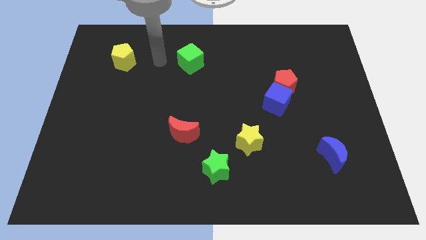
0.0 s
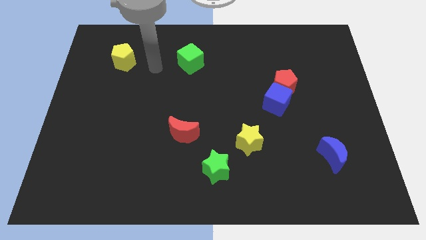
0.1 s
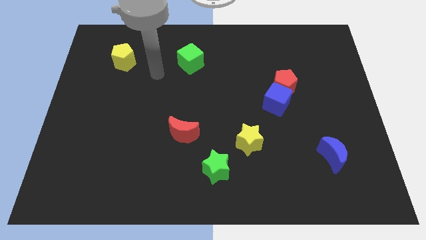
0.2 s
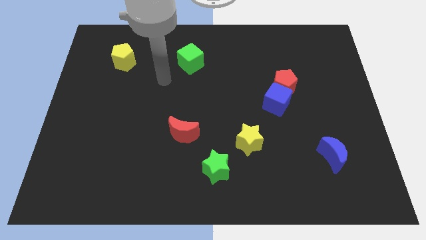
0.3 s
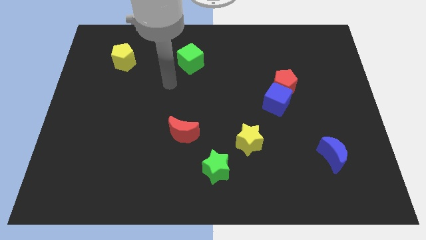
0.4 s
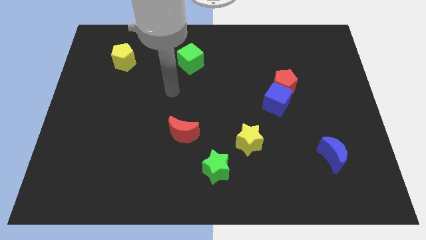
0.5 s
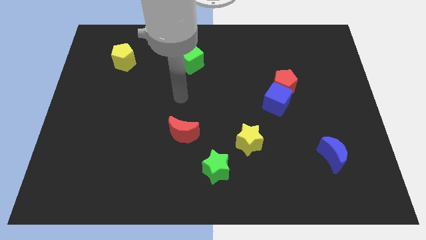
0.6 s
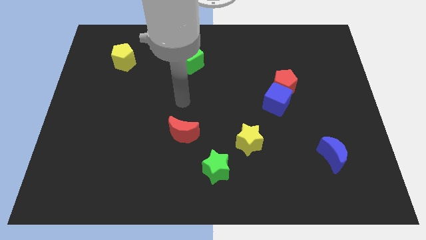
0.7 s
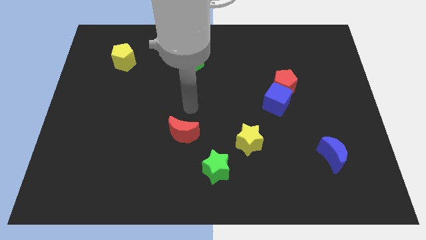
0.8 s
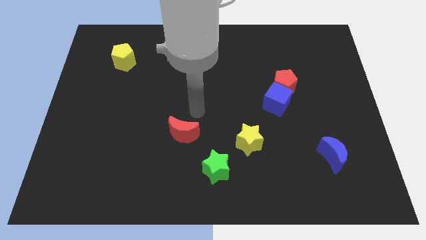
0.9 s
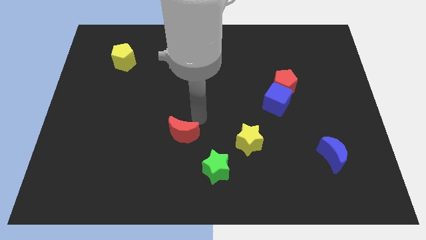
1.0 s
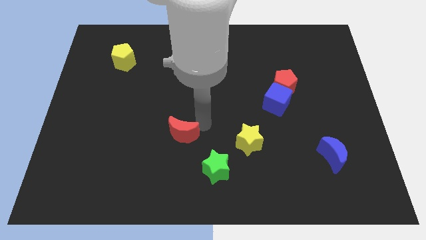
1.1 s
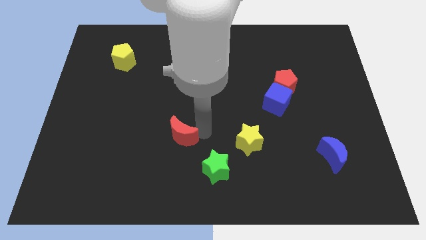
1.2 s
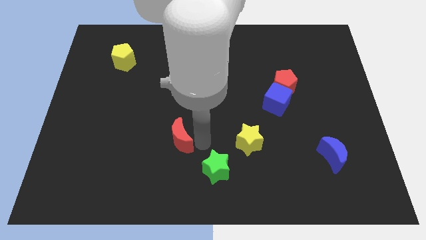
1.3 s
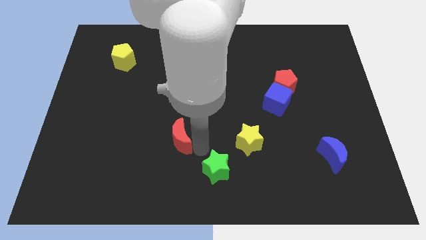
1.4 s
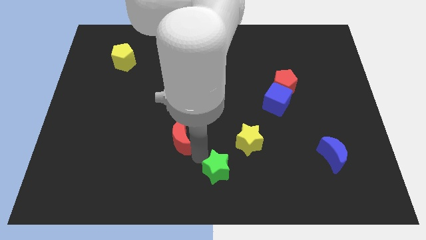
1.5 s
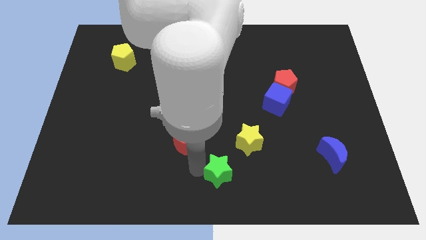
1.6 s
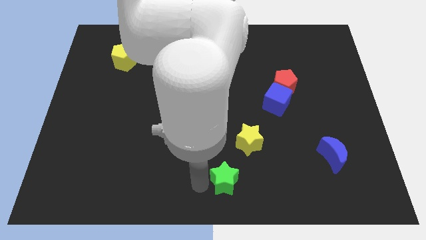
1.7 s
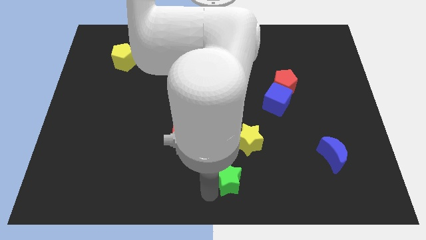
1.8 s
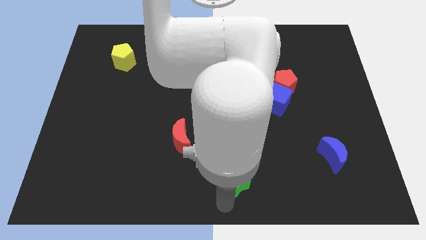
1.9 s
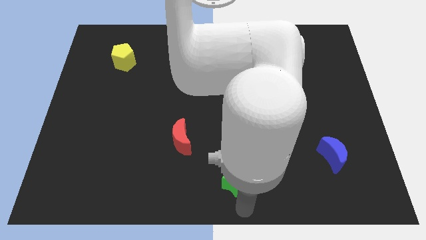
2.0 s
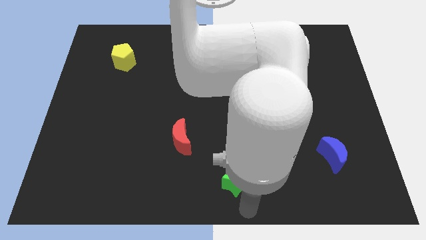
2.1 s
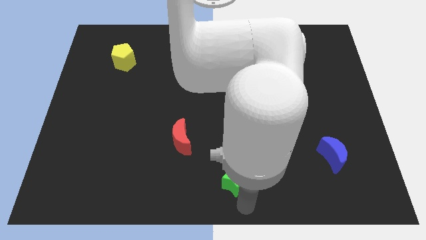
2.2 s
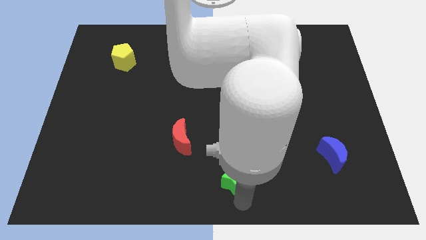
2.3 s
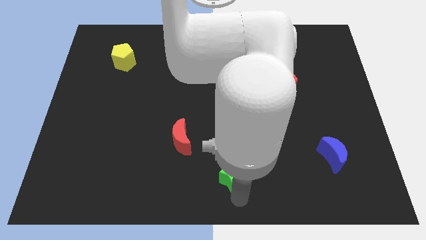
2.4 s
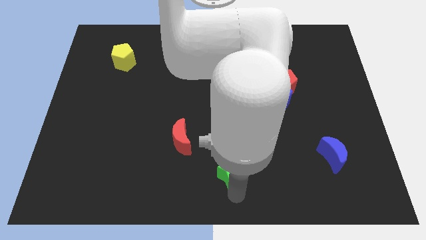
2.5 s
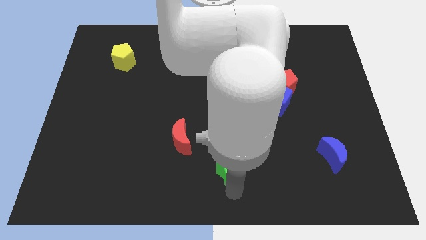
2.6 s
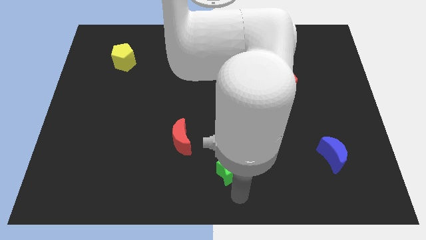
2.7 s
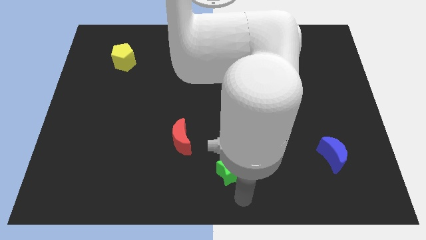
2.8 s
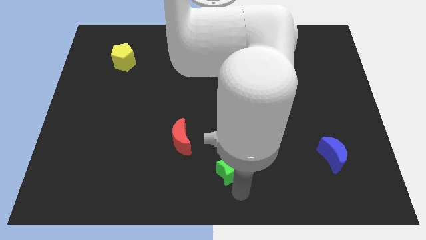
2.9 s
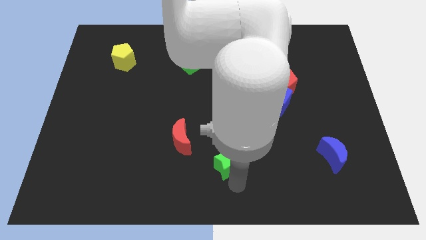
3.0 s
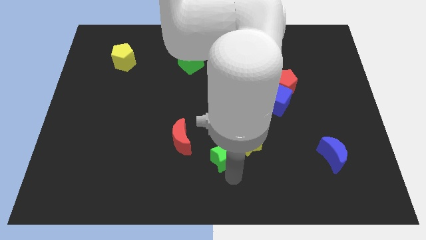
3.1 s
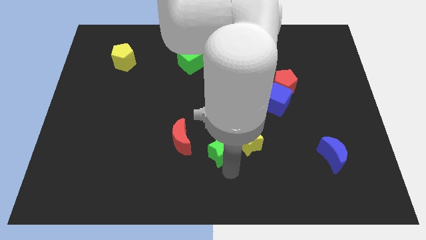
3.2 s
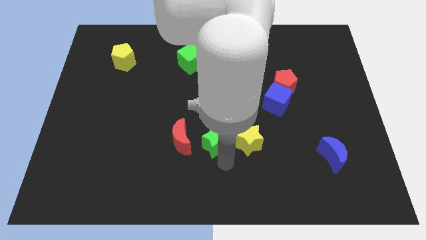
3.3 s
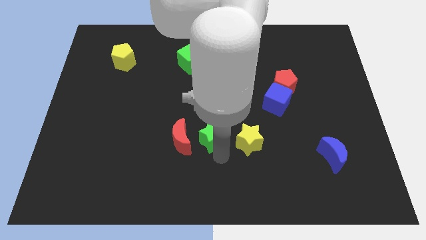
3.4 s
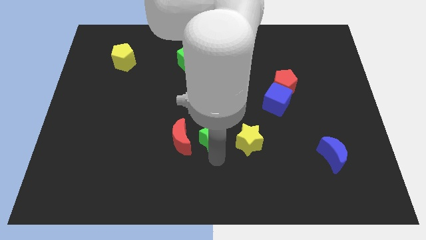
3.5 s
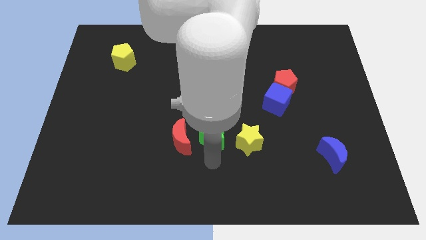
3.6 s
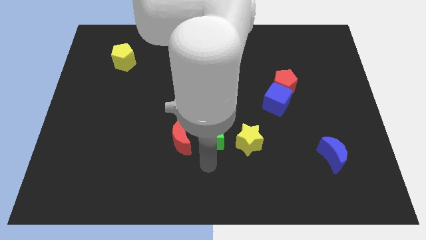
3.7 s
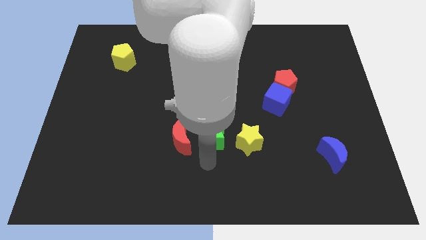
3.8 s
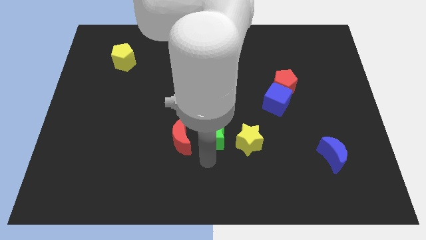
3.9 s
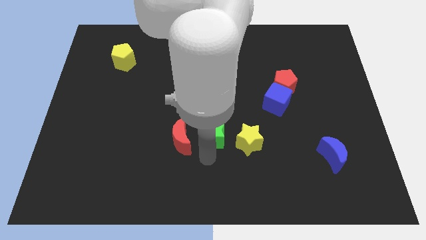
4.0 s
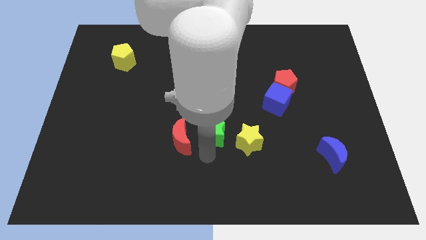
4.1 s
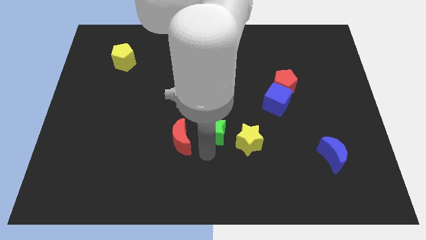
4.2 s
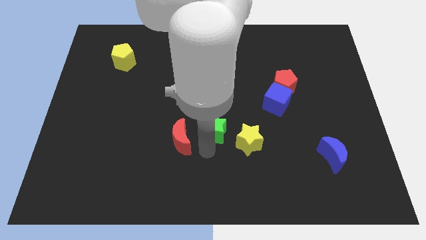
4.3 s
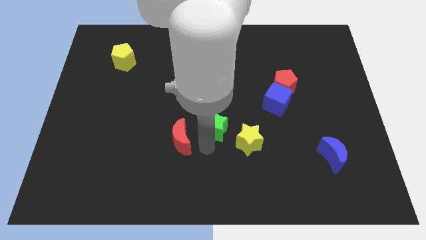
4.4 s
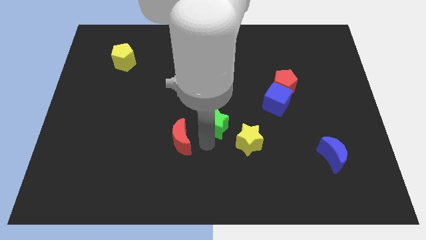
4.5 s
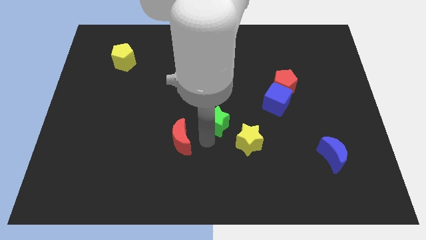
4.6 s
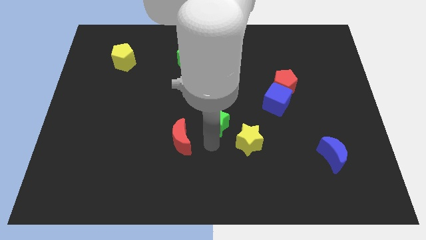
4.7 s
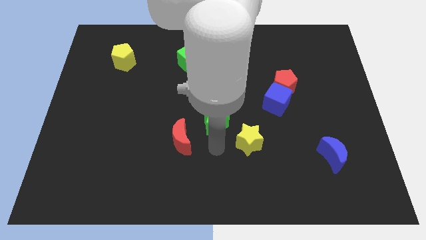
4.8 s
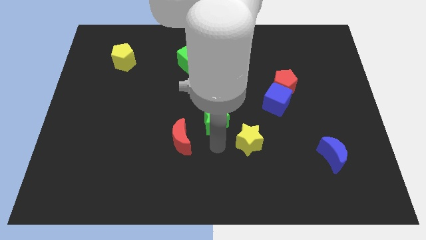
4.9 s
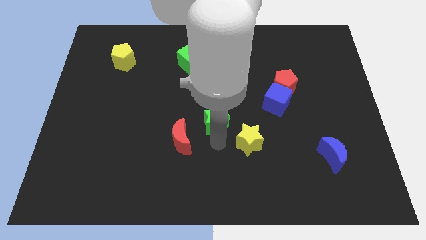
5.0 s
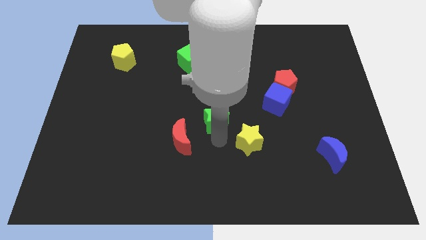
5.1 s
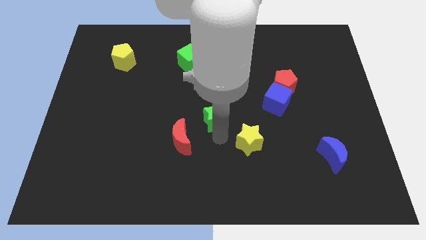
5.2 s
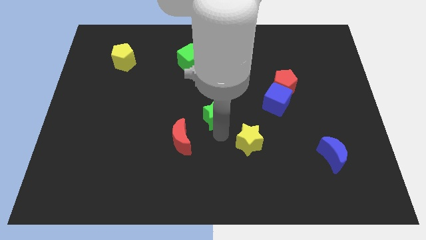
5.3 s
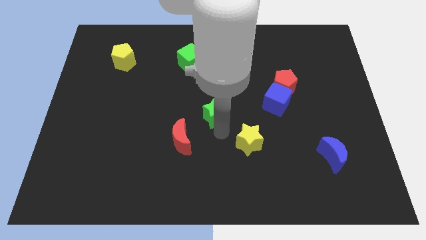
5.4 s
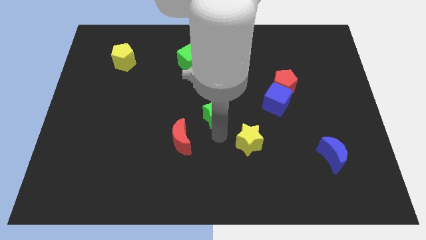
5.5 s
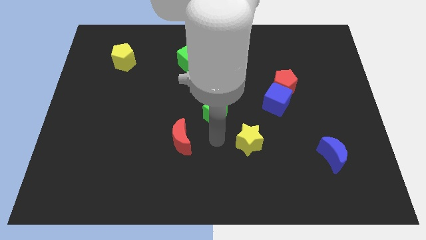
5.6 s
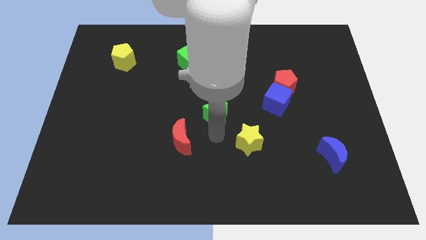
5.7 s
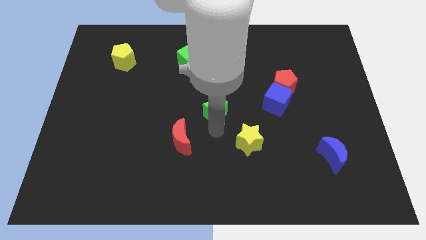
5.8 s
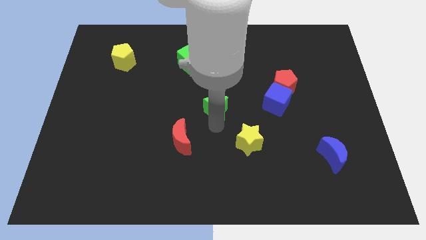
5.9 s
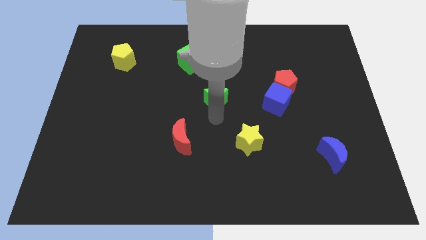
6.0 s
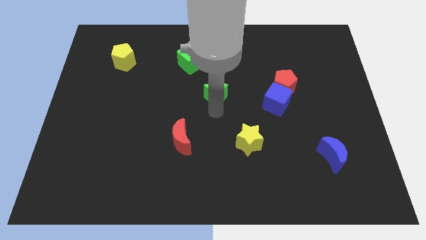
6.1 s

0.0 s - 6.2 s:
move the green star upwards

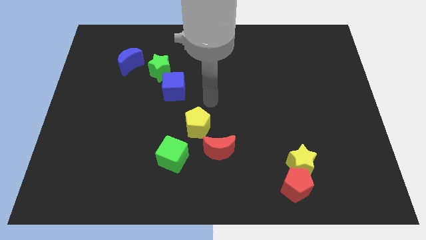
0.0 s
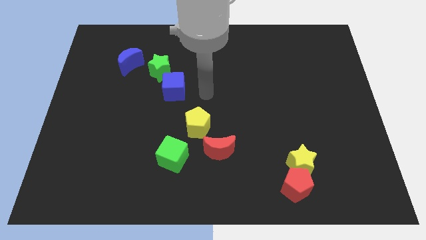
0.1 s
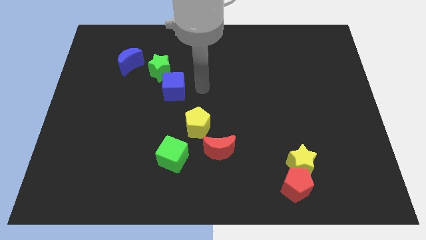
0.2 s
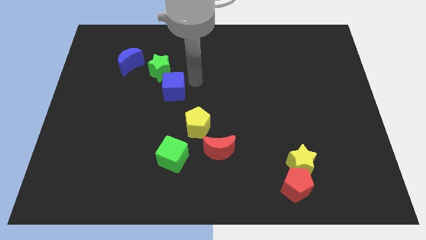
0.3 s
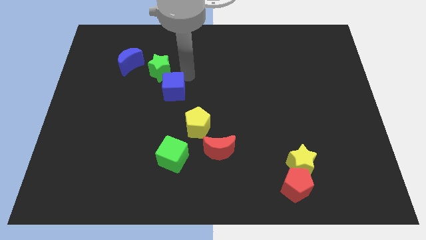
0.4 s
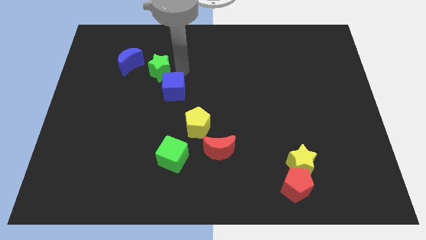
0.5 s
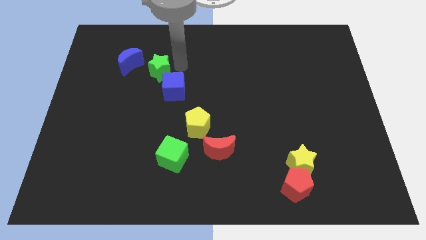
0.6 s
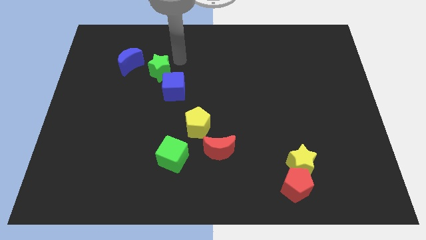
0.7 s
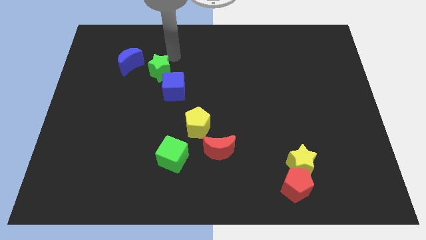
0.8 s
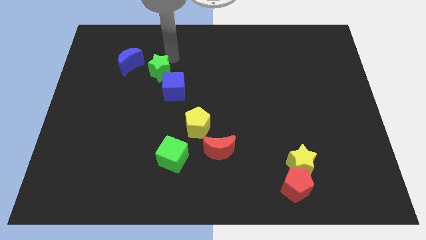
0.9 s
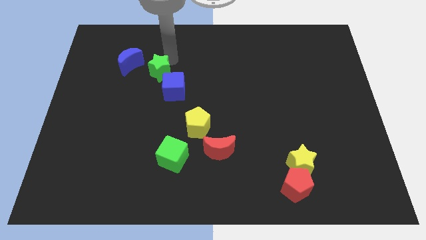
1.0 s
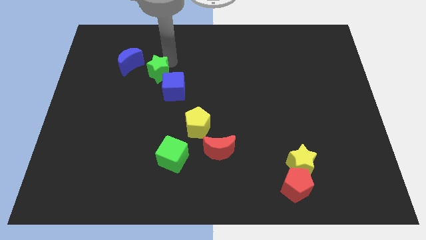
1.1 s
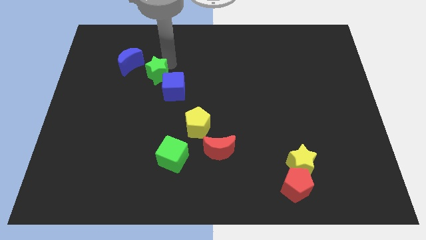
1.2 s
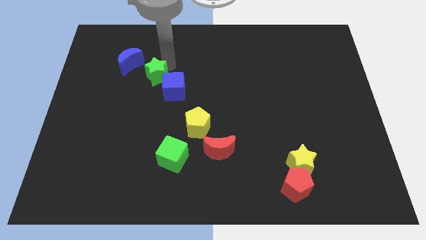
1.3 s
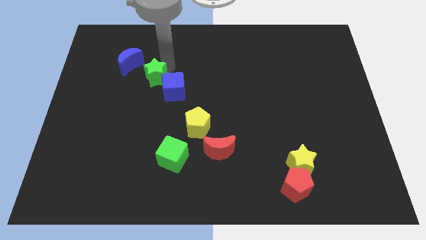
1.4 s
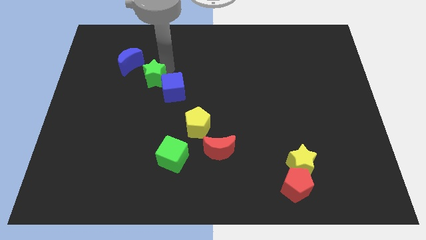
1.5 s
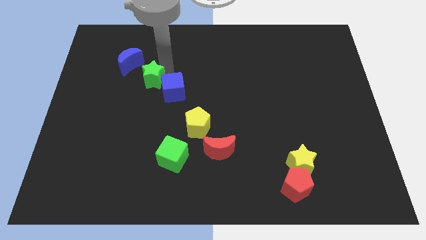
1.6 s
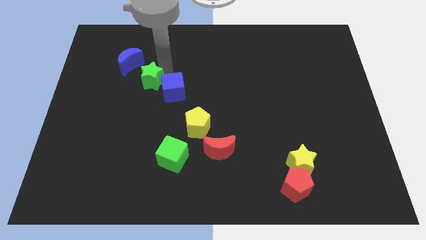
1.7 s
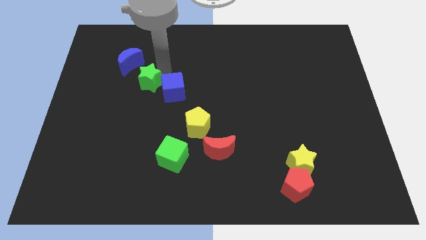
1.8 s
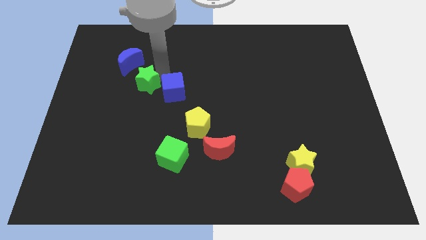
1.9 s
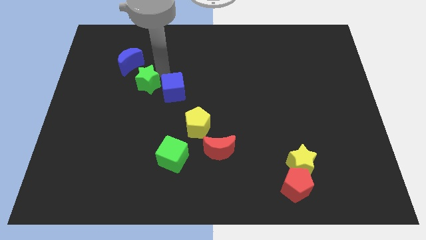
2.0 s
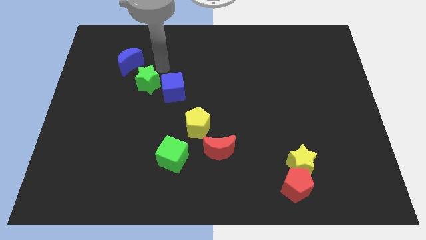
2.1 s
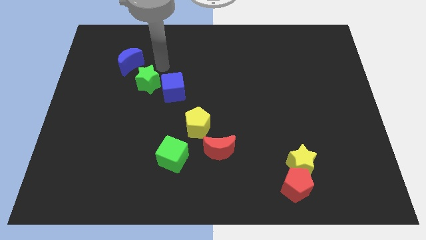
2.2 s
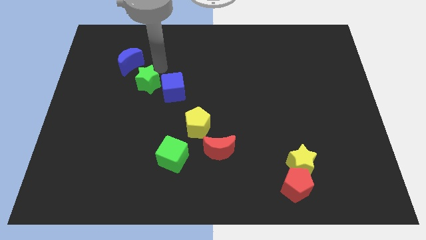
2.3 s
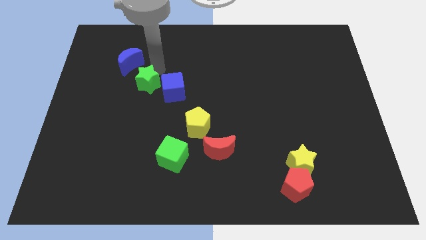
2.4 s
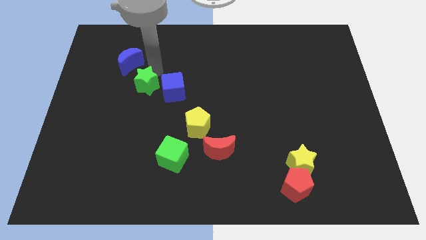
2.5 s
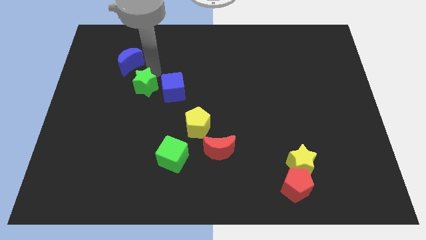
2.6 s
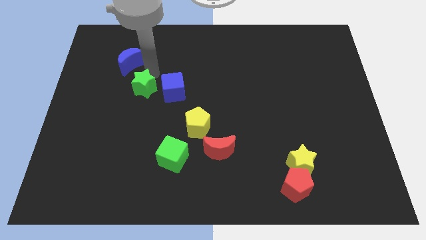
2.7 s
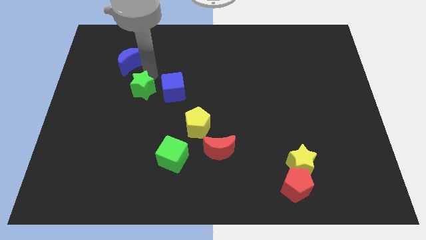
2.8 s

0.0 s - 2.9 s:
slightly slide the green star downwards and left
